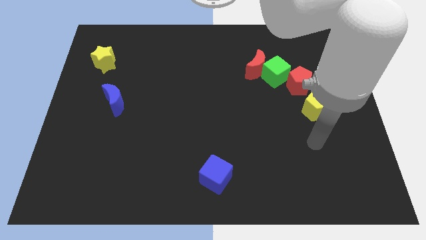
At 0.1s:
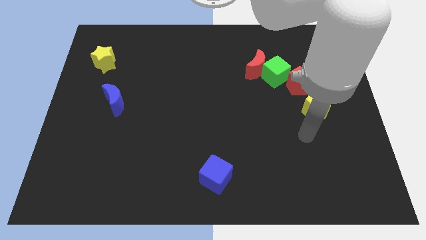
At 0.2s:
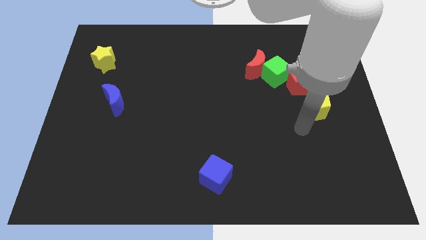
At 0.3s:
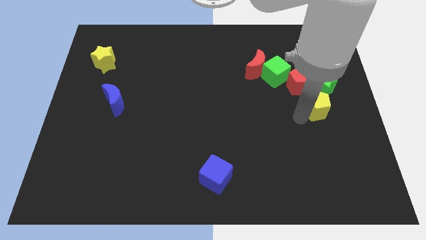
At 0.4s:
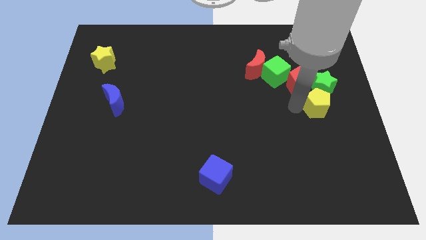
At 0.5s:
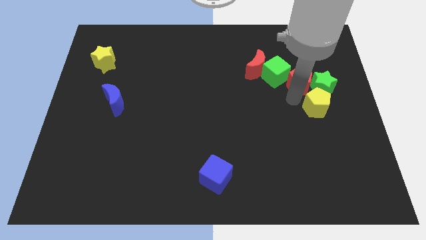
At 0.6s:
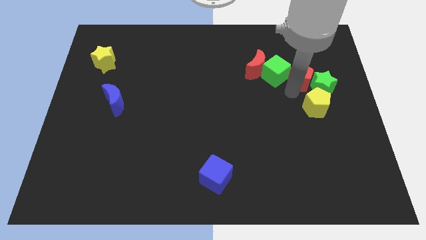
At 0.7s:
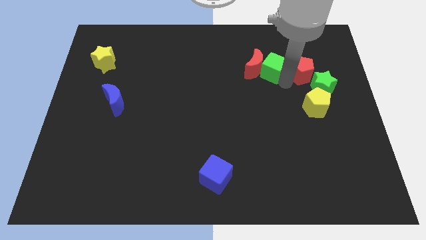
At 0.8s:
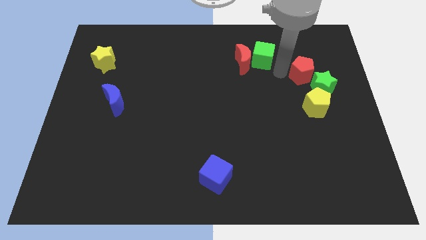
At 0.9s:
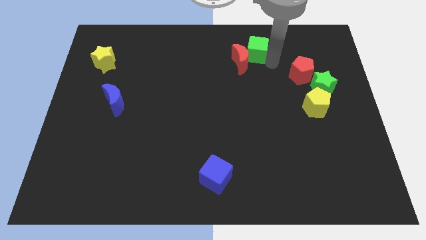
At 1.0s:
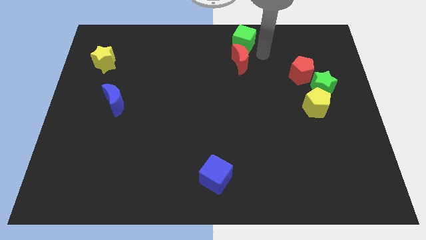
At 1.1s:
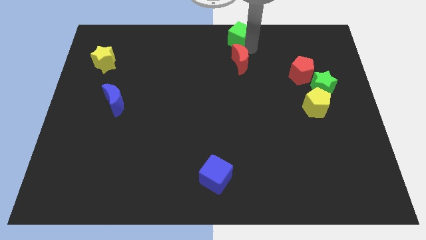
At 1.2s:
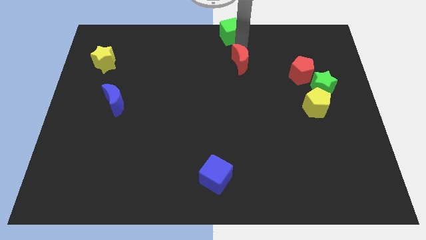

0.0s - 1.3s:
pull the red moon apart from the green cube

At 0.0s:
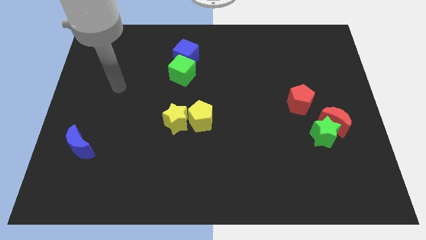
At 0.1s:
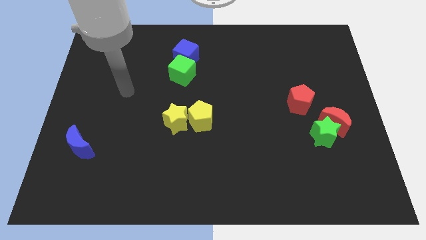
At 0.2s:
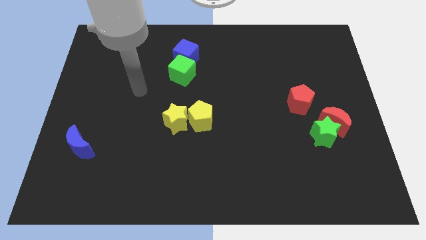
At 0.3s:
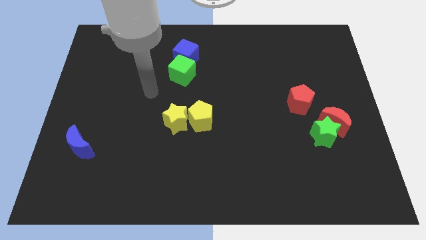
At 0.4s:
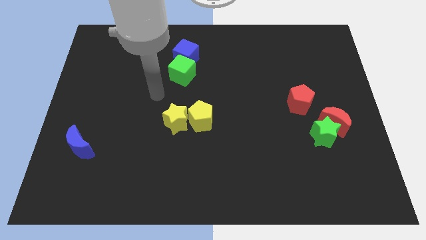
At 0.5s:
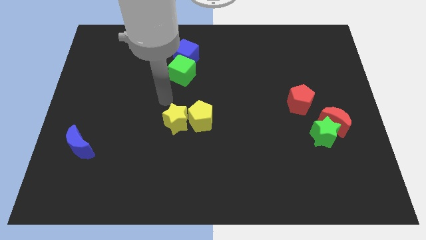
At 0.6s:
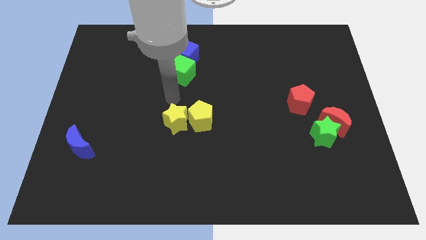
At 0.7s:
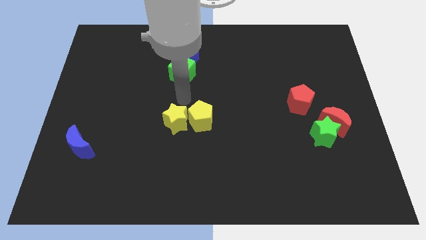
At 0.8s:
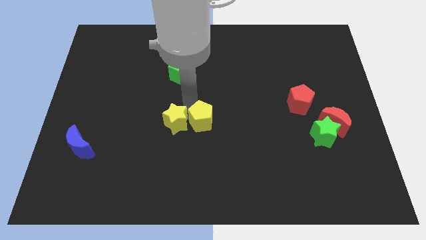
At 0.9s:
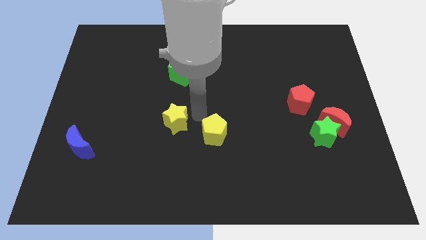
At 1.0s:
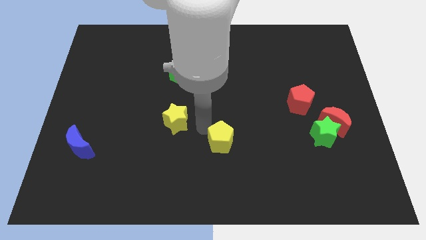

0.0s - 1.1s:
pull the yellow star apart from the yellow pentagon

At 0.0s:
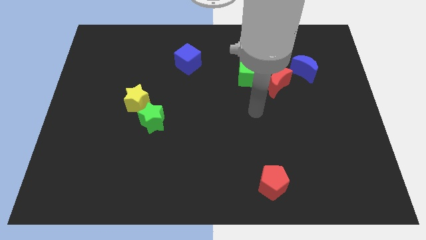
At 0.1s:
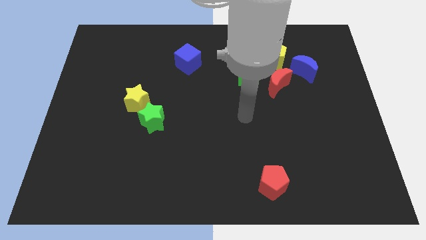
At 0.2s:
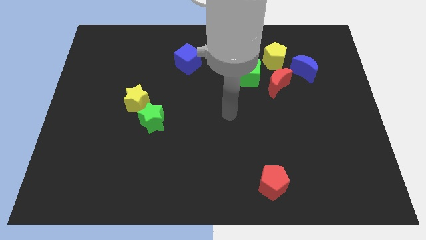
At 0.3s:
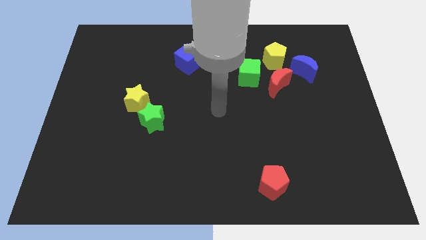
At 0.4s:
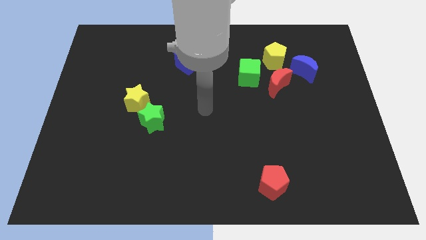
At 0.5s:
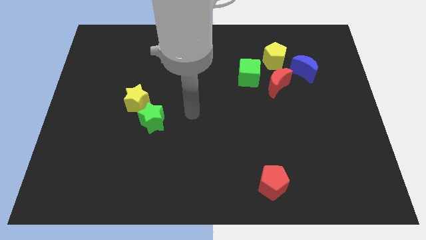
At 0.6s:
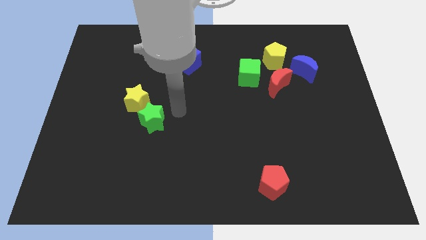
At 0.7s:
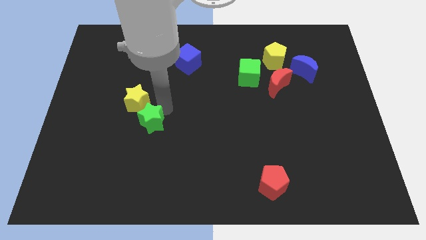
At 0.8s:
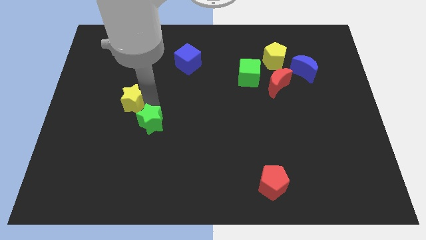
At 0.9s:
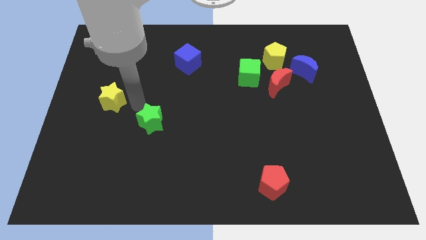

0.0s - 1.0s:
separate the green star from the yellow star

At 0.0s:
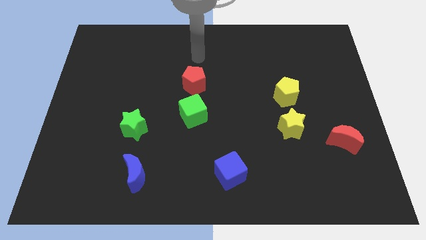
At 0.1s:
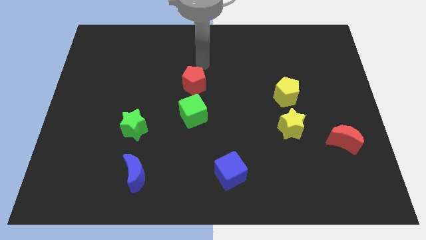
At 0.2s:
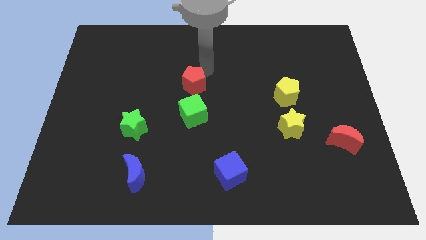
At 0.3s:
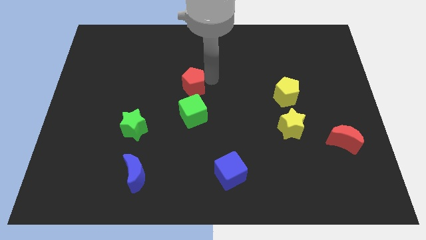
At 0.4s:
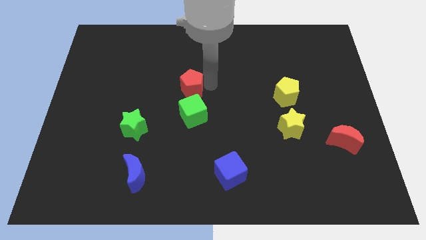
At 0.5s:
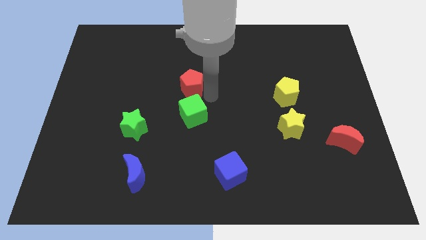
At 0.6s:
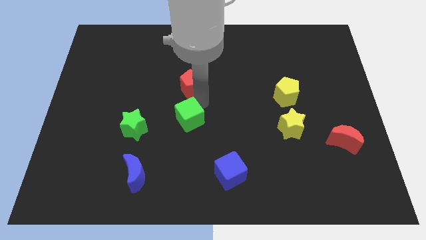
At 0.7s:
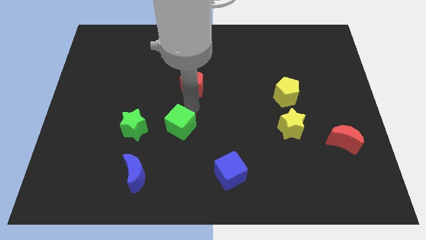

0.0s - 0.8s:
separate the red pentagon from the green cube

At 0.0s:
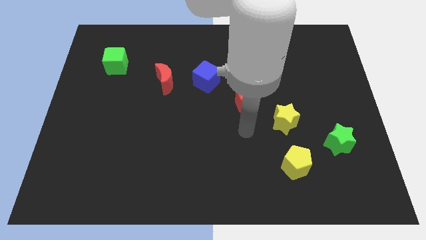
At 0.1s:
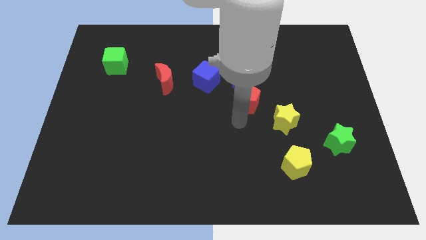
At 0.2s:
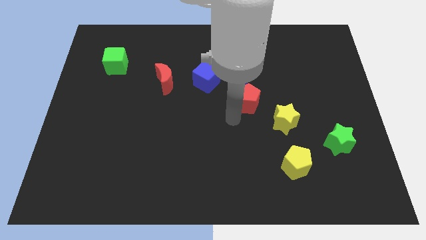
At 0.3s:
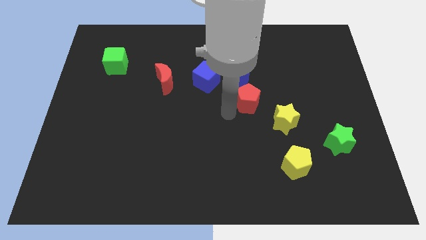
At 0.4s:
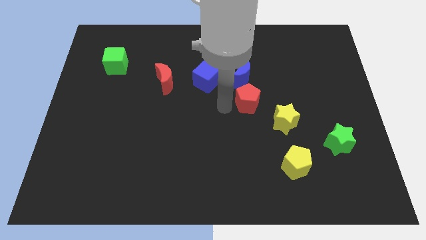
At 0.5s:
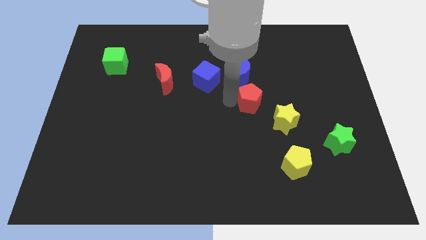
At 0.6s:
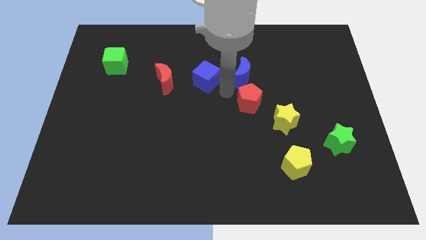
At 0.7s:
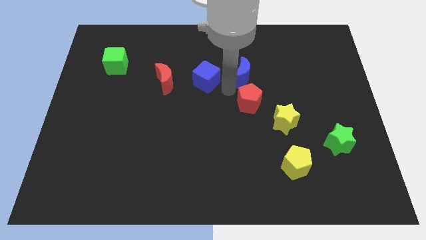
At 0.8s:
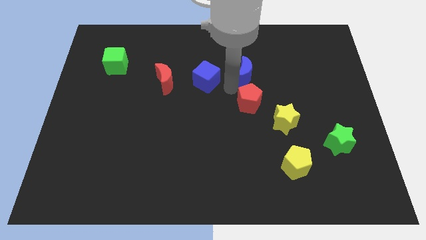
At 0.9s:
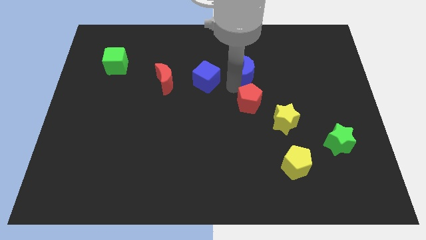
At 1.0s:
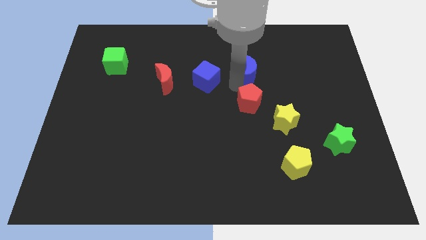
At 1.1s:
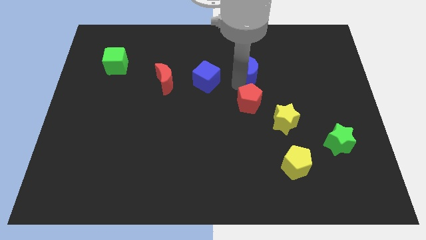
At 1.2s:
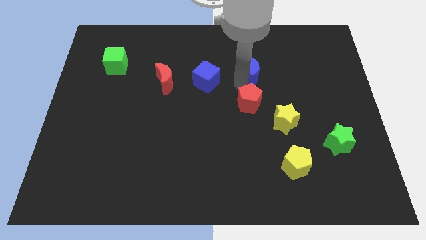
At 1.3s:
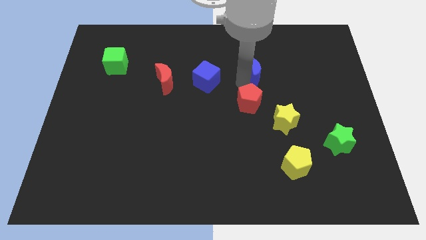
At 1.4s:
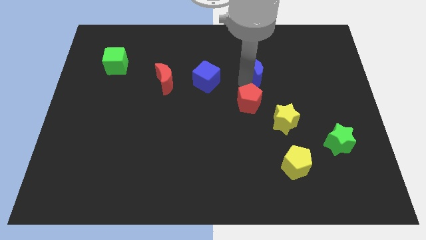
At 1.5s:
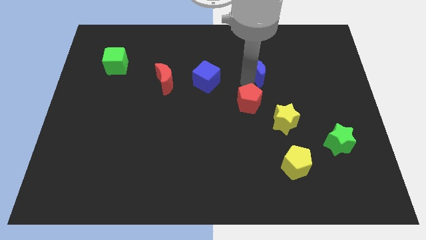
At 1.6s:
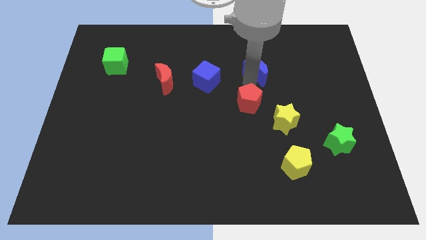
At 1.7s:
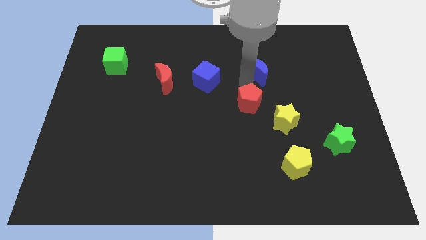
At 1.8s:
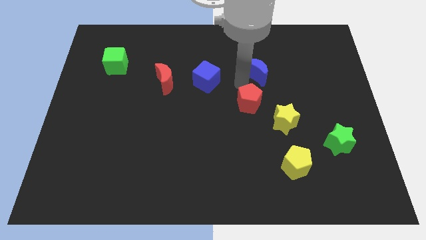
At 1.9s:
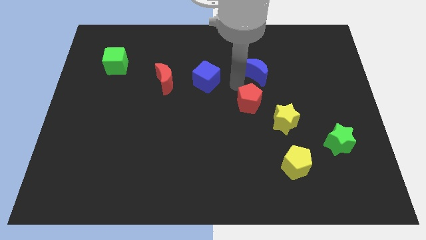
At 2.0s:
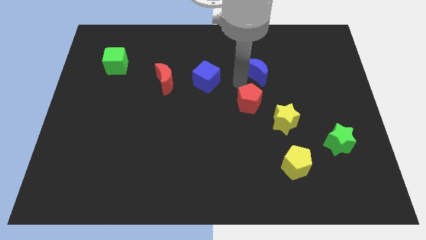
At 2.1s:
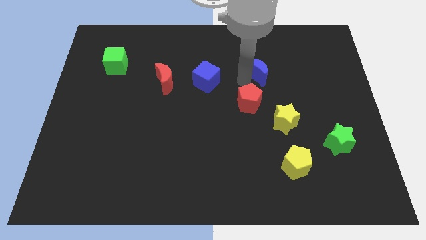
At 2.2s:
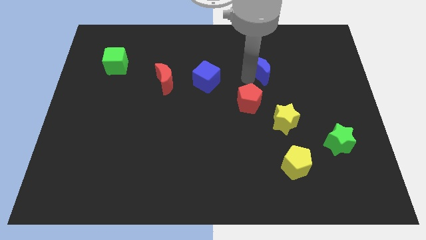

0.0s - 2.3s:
pull the blue moon apart from the red pentagon and blue cube

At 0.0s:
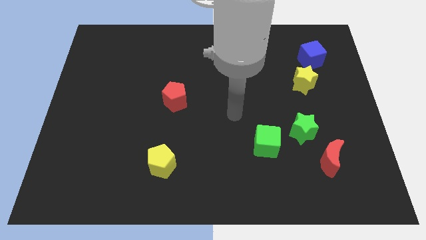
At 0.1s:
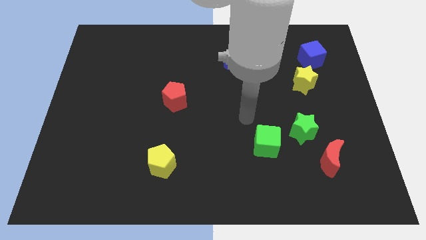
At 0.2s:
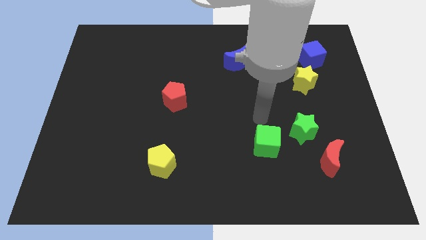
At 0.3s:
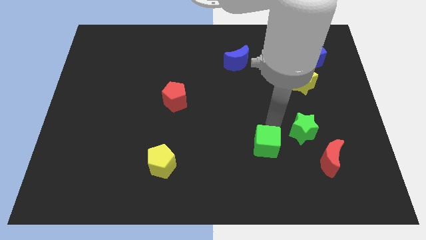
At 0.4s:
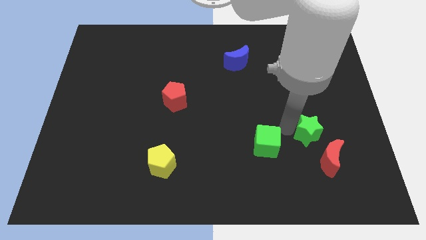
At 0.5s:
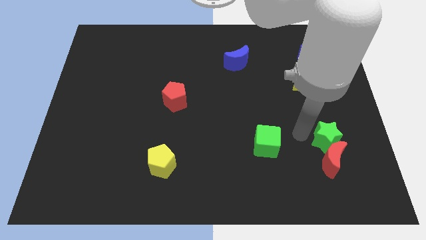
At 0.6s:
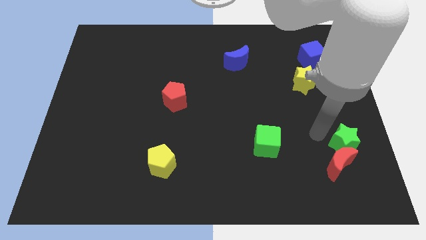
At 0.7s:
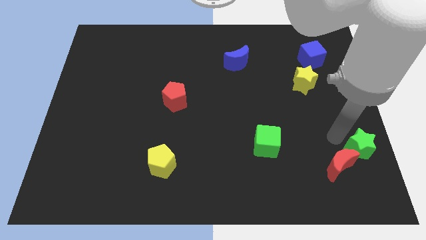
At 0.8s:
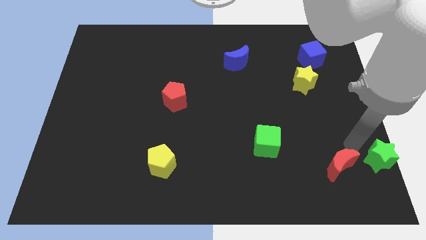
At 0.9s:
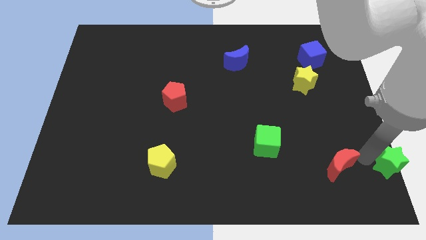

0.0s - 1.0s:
separate the red moon from the green star

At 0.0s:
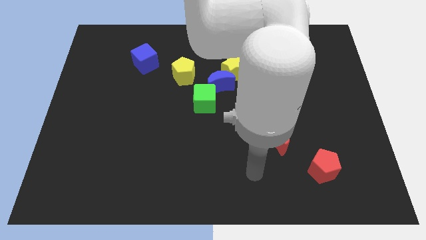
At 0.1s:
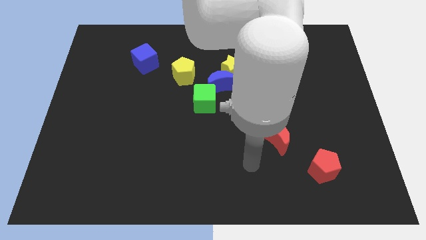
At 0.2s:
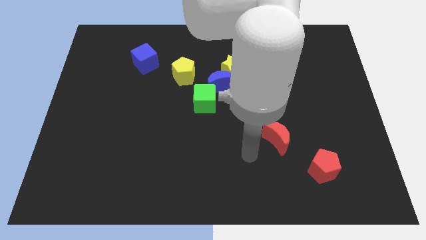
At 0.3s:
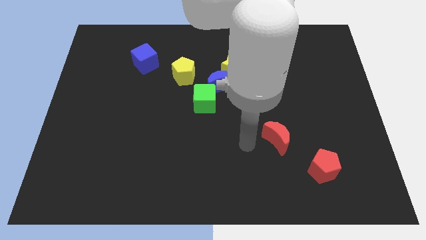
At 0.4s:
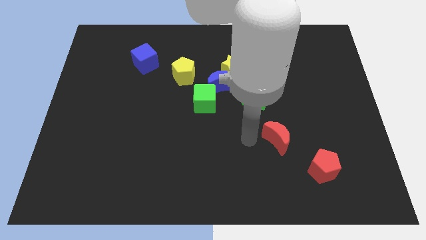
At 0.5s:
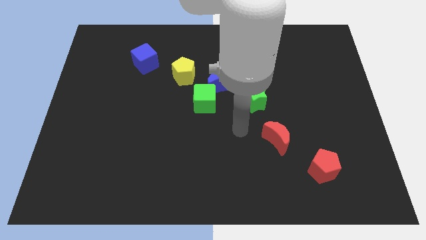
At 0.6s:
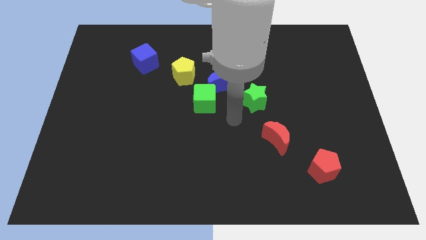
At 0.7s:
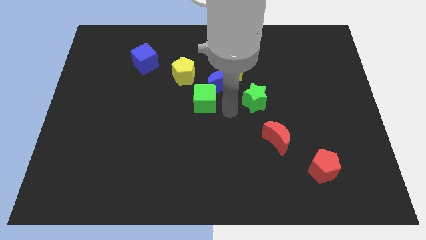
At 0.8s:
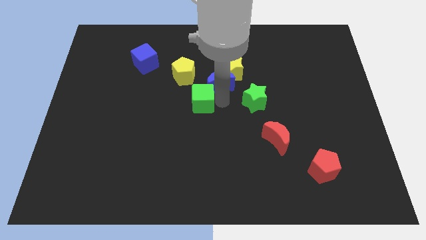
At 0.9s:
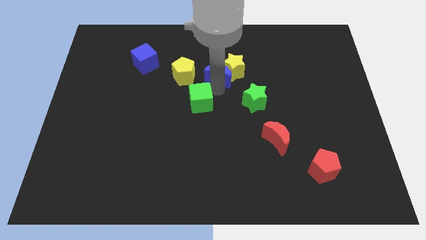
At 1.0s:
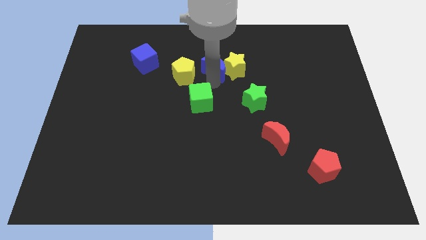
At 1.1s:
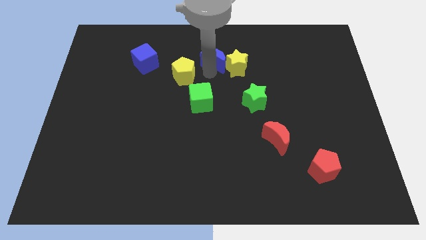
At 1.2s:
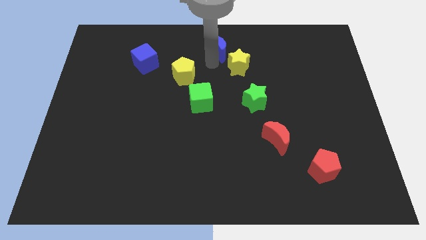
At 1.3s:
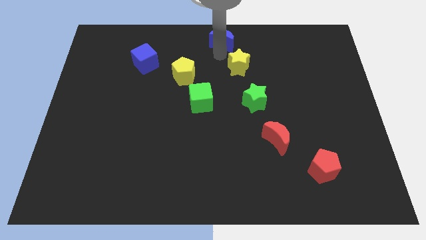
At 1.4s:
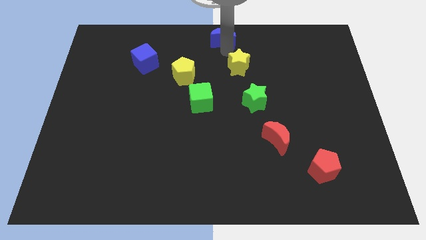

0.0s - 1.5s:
separate the yellow star from the blue moon

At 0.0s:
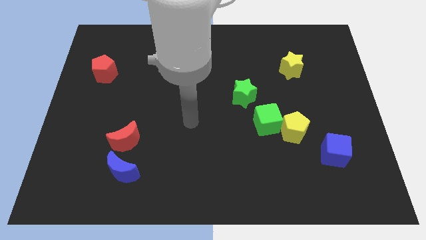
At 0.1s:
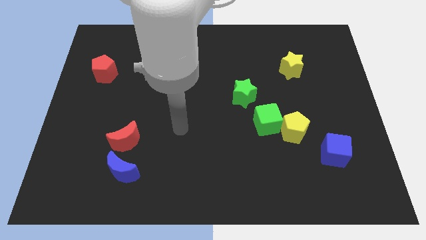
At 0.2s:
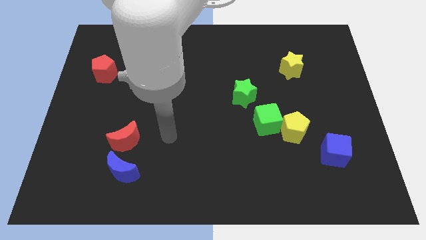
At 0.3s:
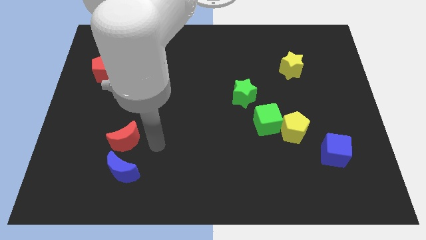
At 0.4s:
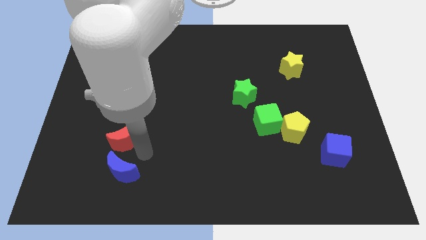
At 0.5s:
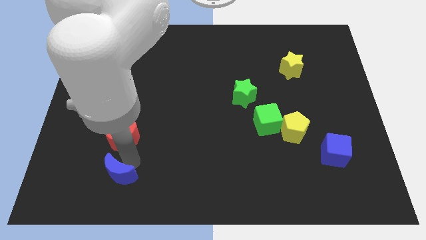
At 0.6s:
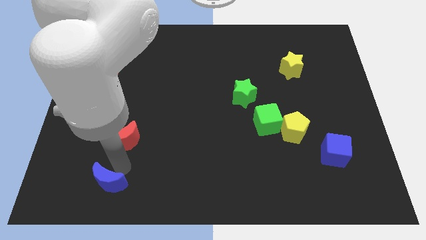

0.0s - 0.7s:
pull the red moon apart from the blue moon
